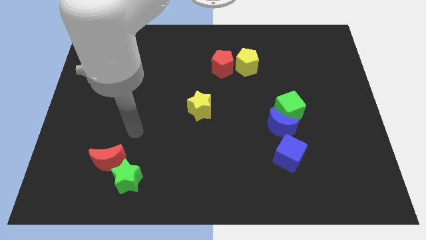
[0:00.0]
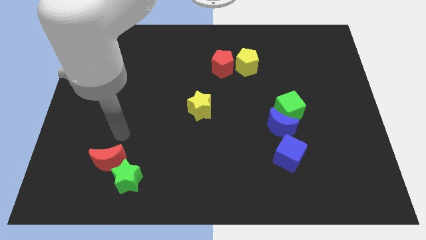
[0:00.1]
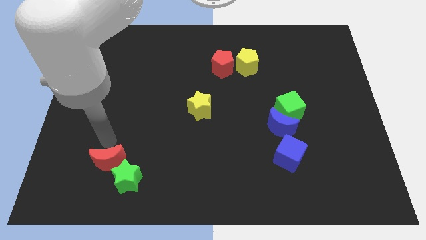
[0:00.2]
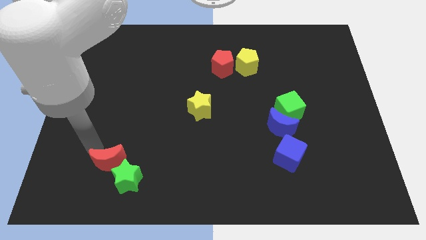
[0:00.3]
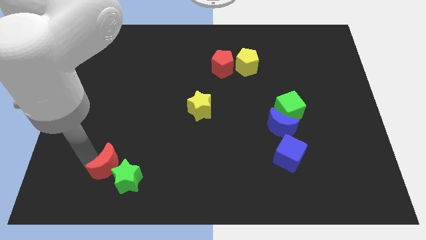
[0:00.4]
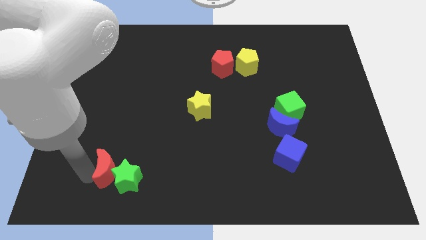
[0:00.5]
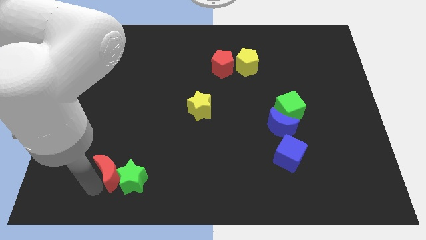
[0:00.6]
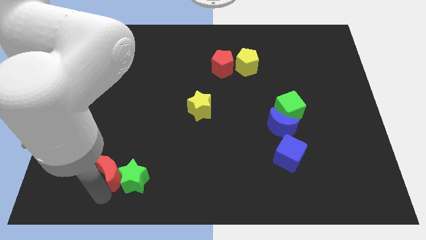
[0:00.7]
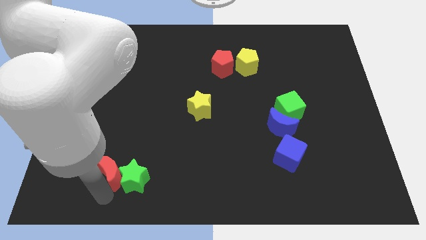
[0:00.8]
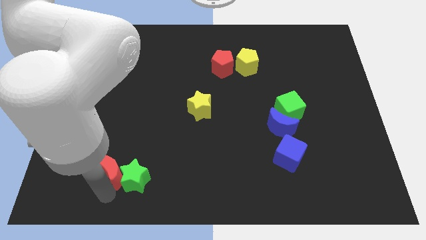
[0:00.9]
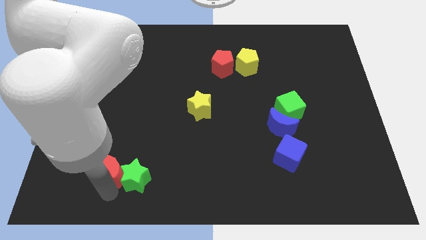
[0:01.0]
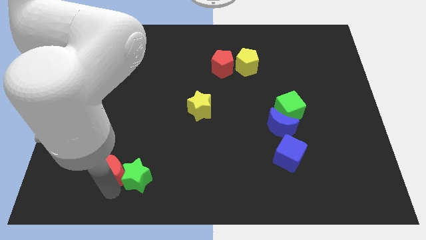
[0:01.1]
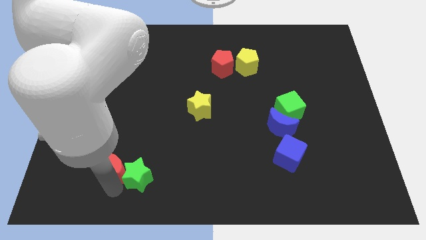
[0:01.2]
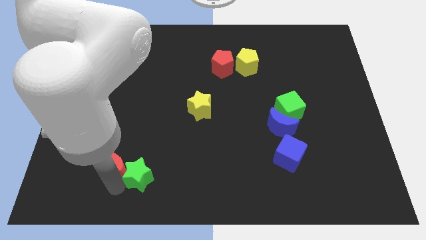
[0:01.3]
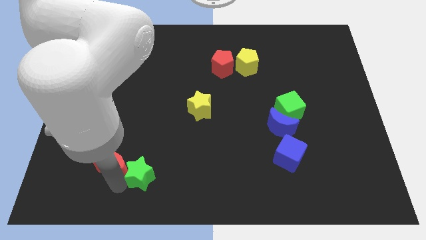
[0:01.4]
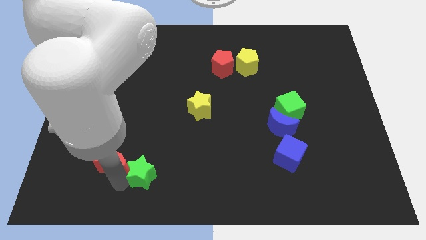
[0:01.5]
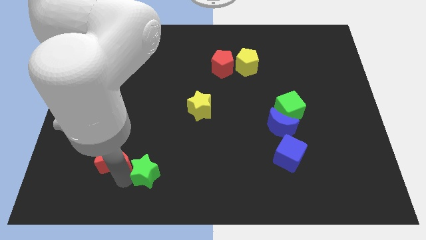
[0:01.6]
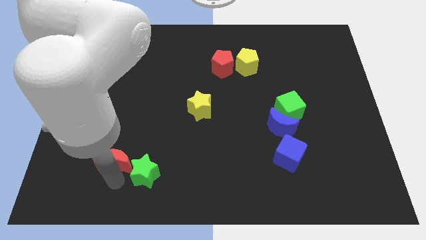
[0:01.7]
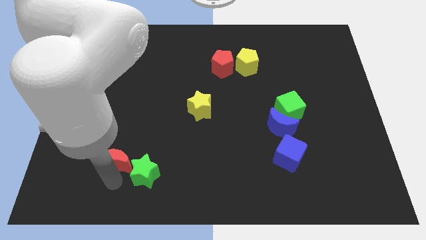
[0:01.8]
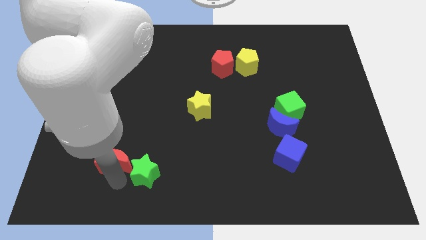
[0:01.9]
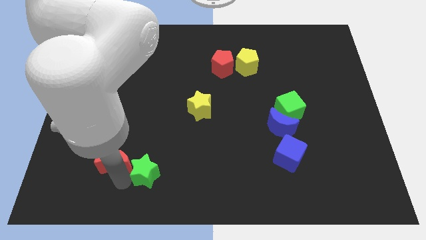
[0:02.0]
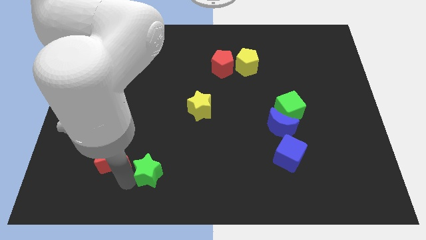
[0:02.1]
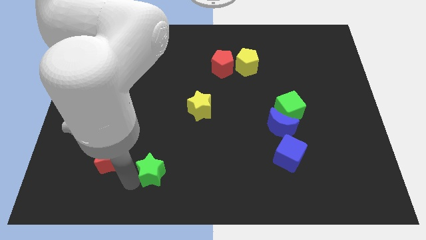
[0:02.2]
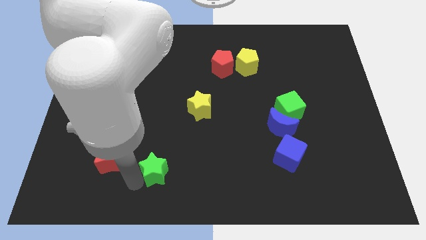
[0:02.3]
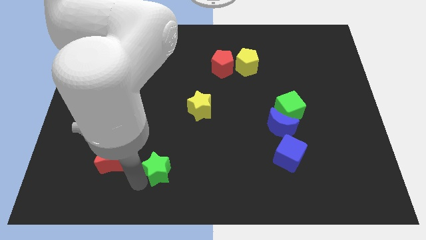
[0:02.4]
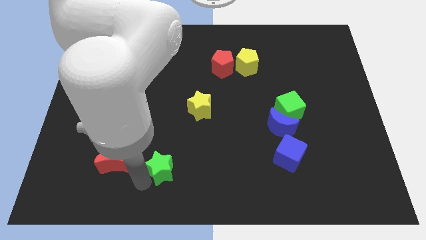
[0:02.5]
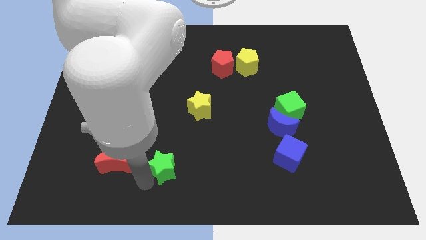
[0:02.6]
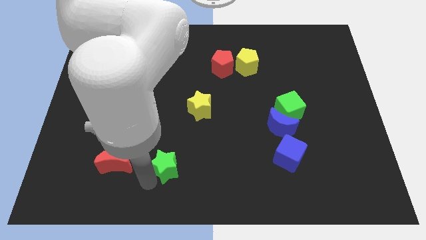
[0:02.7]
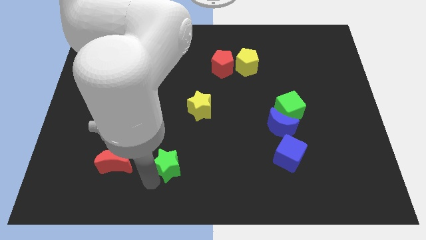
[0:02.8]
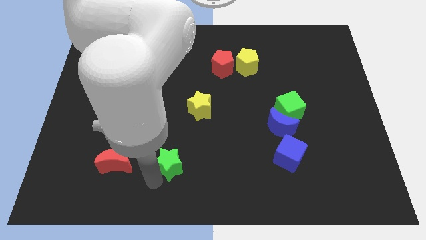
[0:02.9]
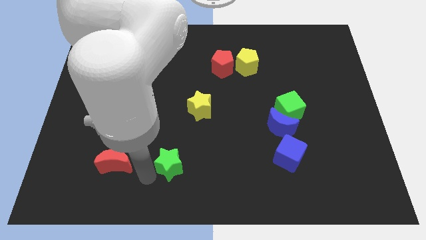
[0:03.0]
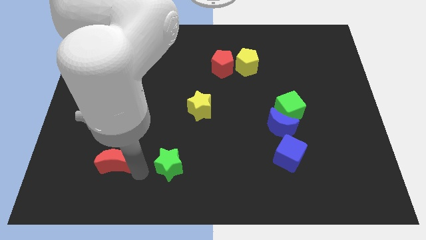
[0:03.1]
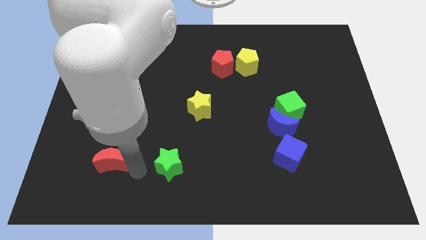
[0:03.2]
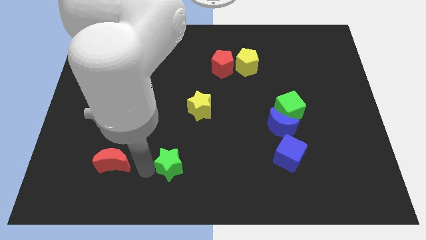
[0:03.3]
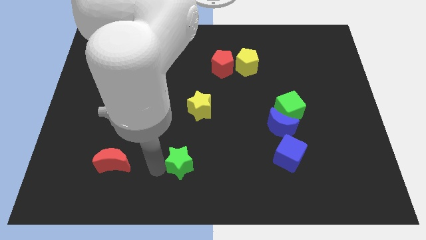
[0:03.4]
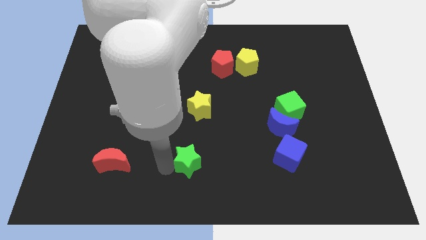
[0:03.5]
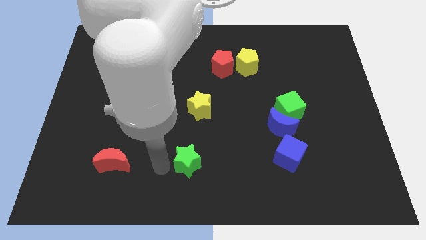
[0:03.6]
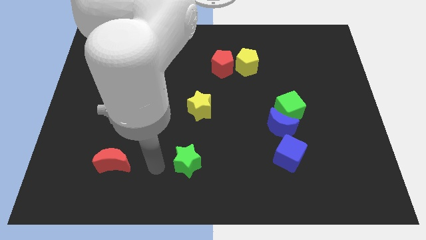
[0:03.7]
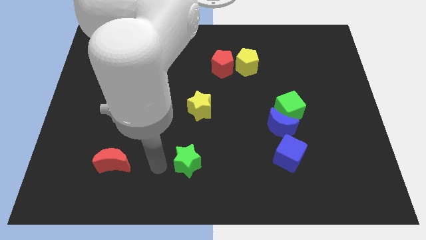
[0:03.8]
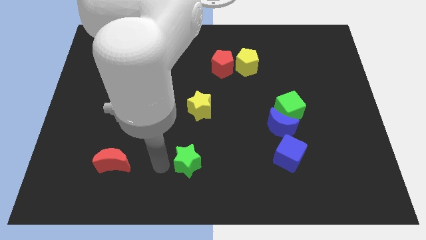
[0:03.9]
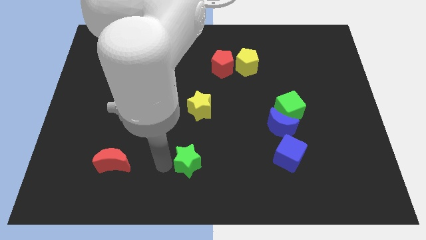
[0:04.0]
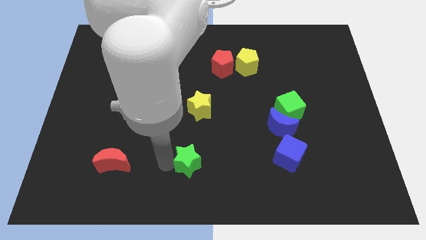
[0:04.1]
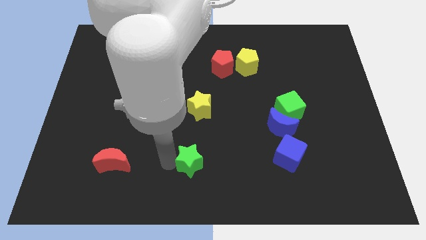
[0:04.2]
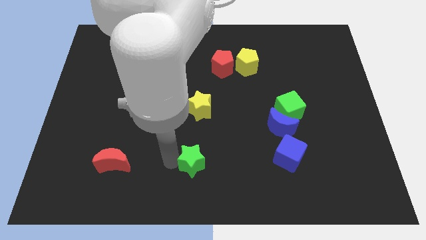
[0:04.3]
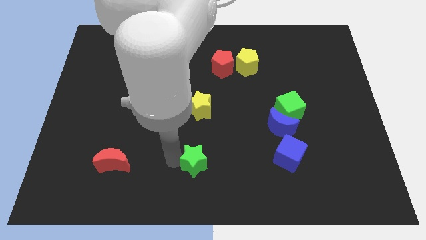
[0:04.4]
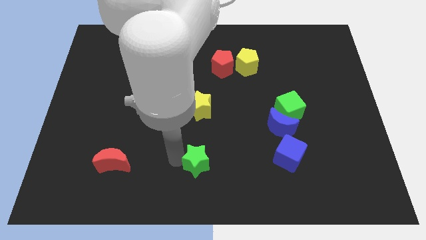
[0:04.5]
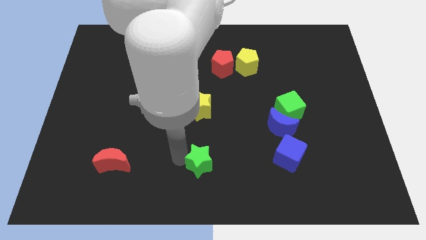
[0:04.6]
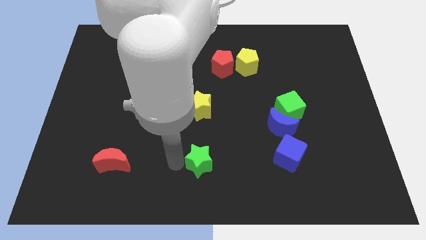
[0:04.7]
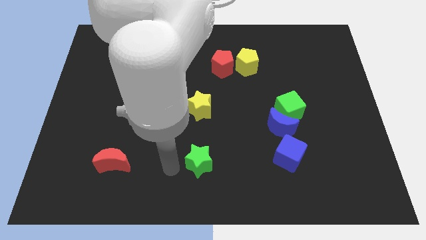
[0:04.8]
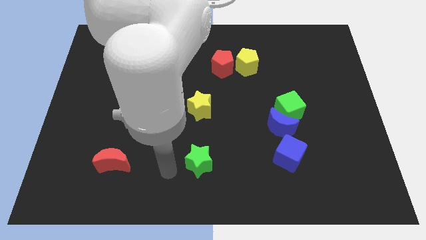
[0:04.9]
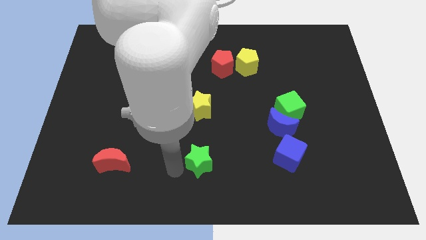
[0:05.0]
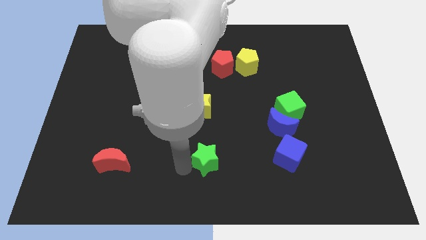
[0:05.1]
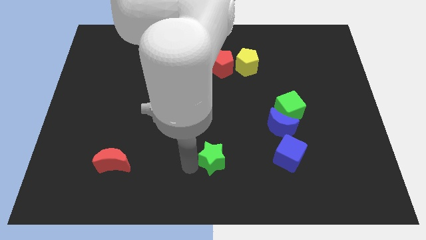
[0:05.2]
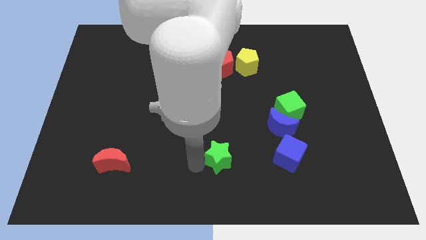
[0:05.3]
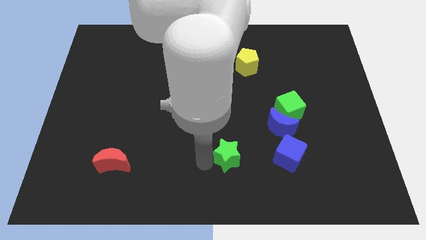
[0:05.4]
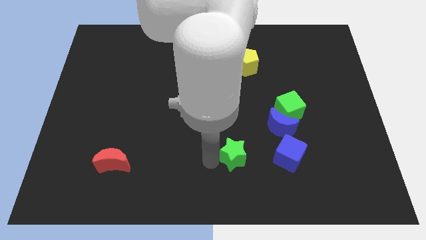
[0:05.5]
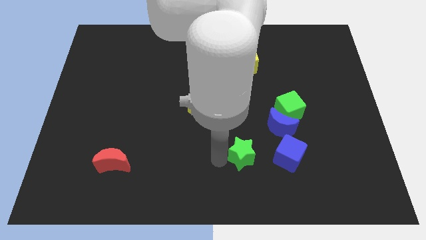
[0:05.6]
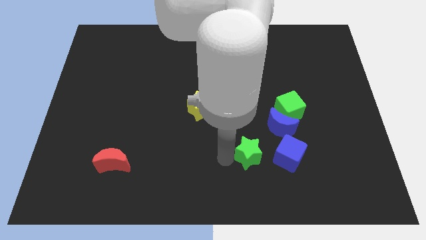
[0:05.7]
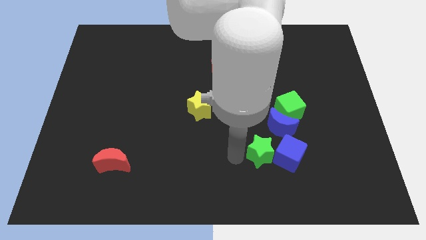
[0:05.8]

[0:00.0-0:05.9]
move the green star next to the blue cube

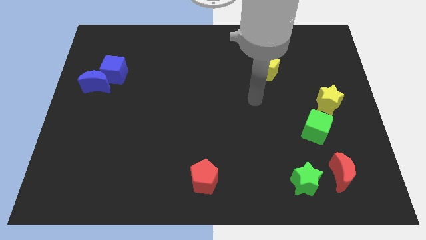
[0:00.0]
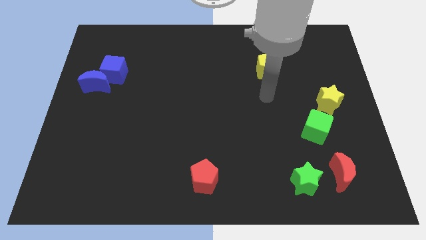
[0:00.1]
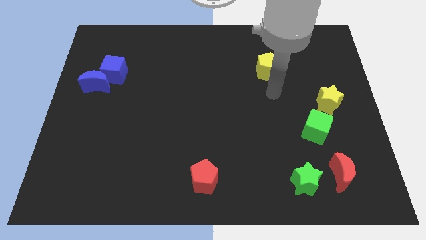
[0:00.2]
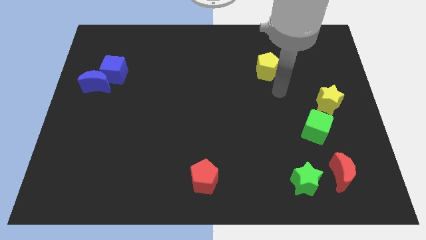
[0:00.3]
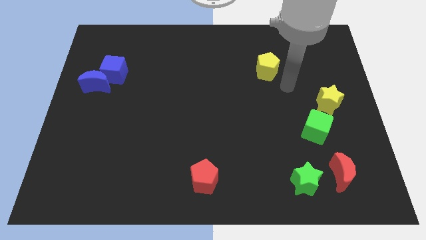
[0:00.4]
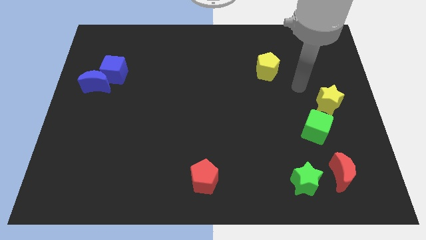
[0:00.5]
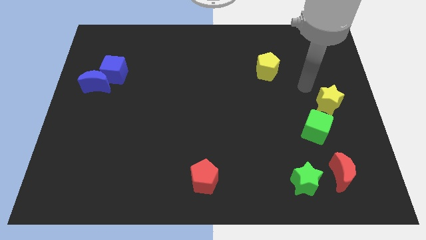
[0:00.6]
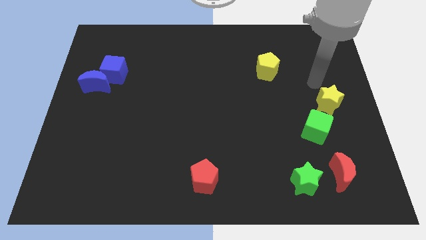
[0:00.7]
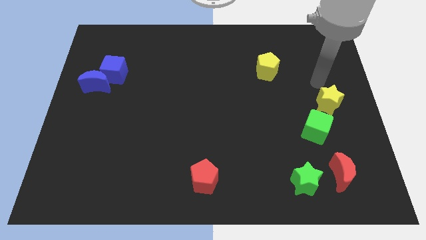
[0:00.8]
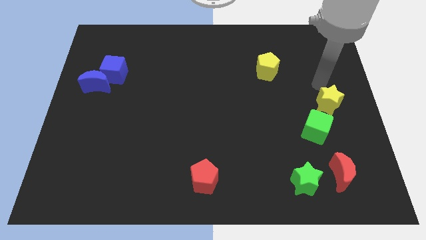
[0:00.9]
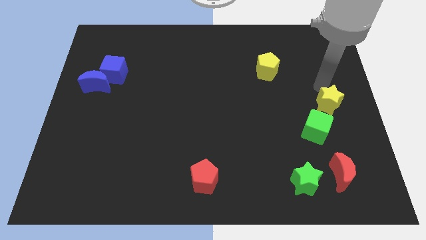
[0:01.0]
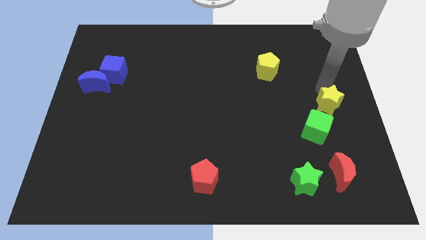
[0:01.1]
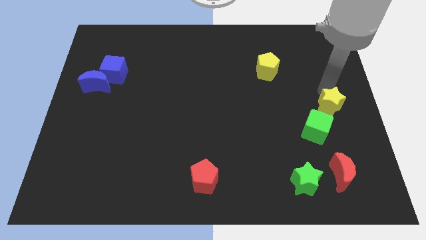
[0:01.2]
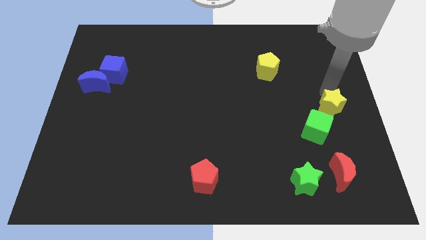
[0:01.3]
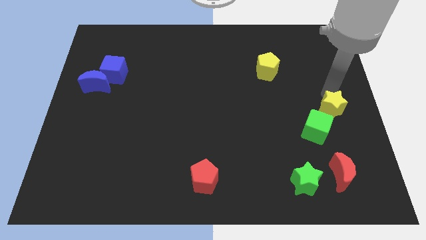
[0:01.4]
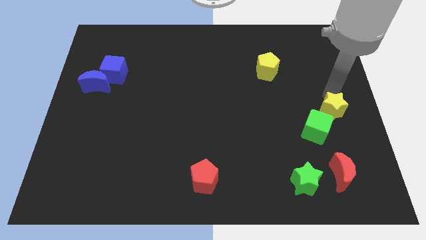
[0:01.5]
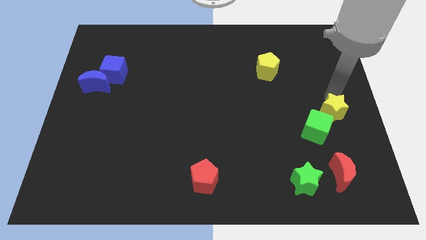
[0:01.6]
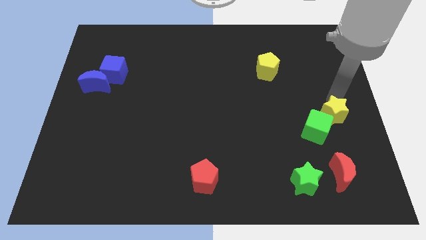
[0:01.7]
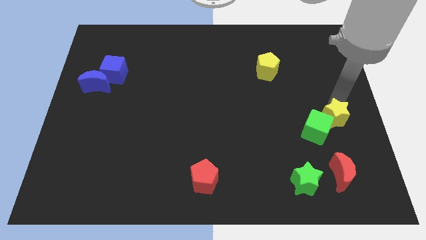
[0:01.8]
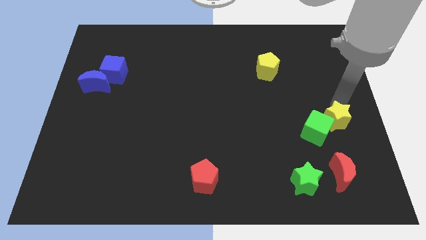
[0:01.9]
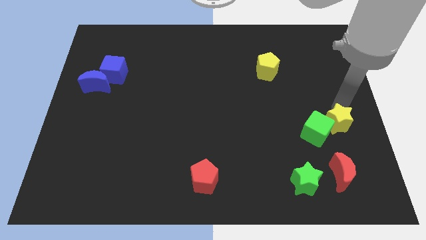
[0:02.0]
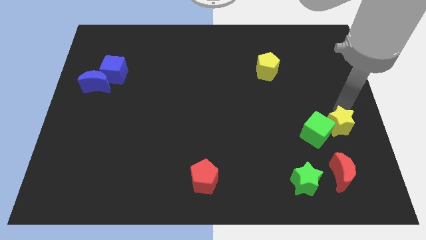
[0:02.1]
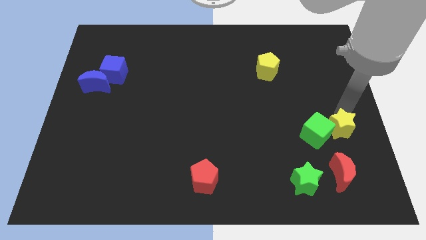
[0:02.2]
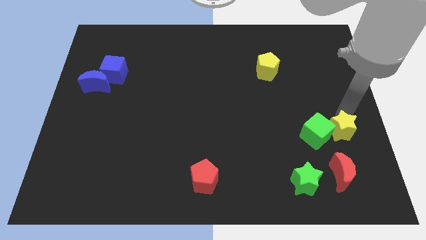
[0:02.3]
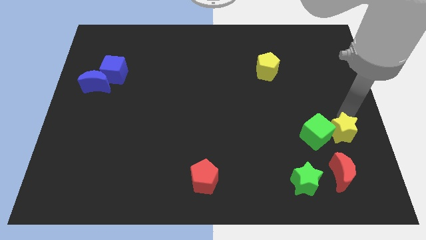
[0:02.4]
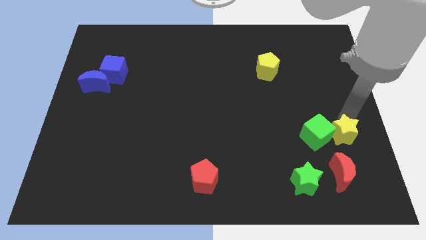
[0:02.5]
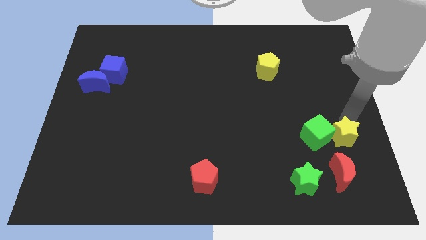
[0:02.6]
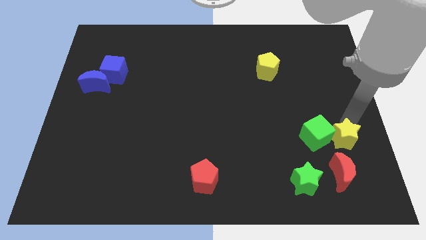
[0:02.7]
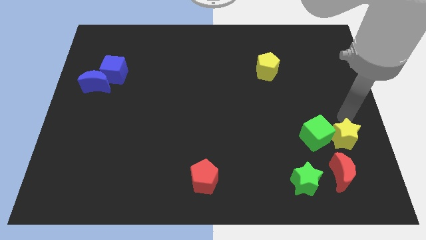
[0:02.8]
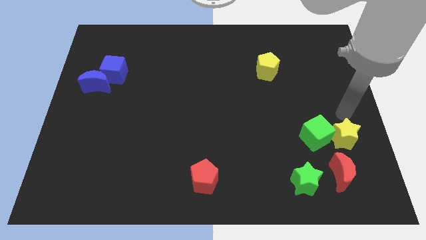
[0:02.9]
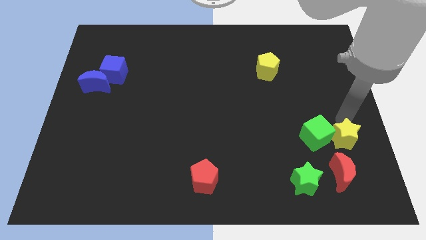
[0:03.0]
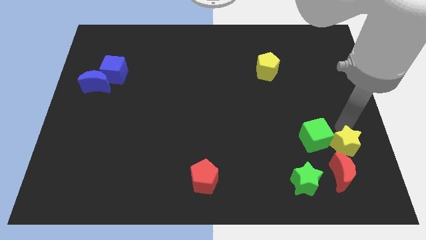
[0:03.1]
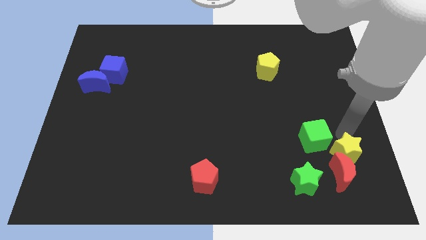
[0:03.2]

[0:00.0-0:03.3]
slide the yellow star towards the red moon
